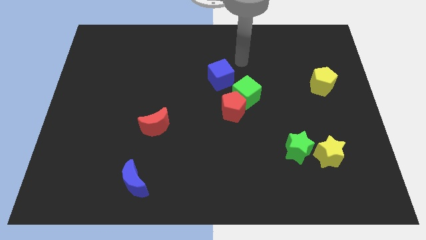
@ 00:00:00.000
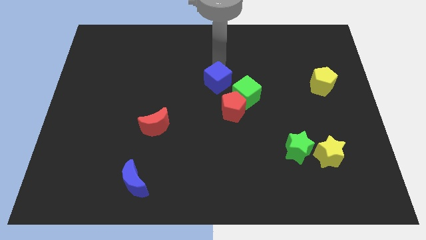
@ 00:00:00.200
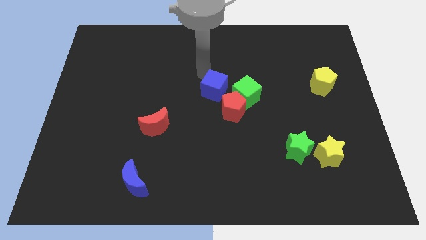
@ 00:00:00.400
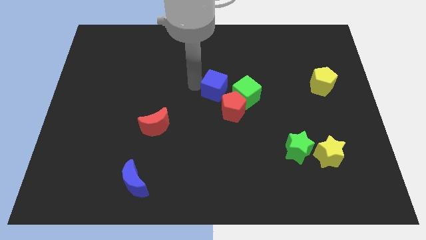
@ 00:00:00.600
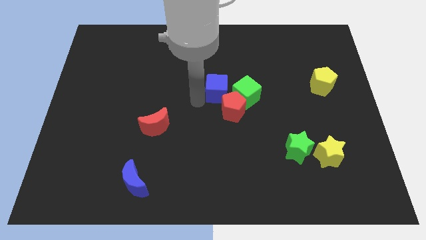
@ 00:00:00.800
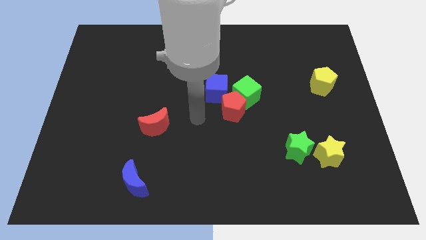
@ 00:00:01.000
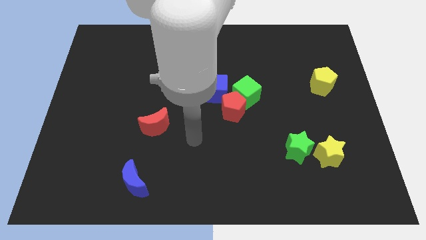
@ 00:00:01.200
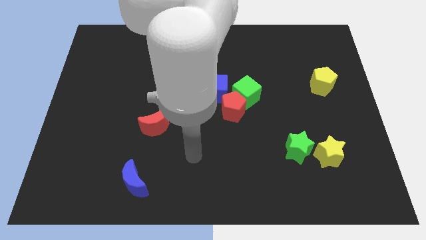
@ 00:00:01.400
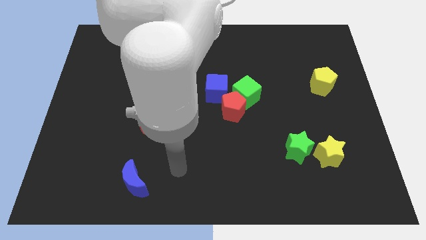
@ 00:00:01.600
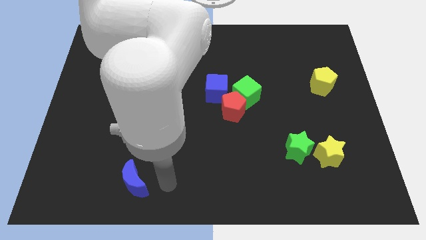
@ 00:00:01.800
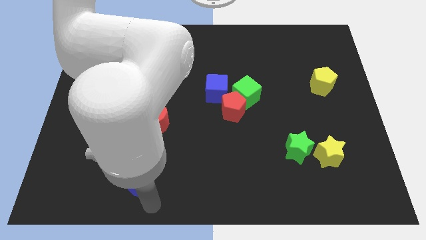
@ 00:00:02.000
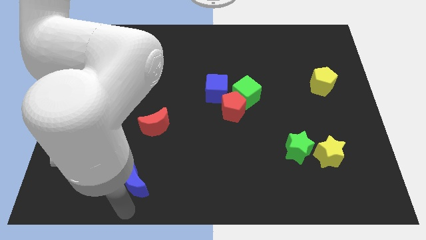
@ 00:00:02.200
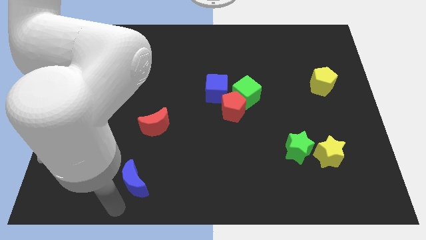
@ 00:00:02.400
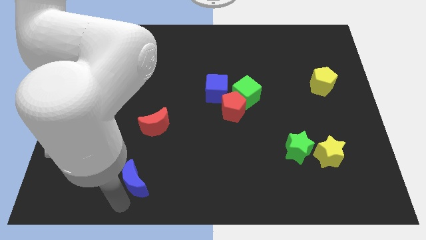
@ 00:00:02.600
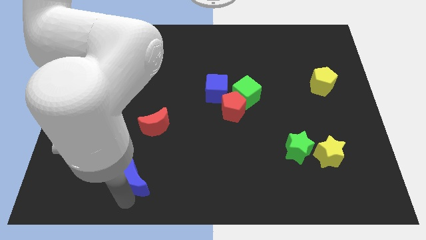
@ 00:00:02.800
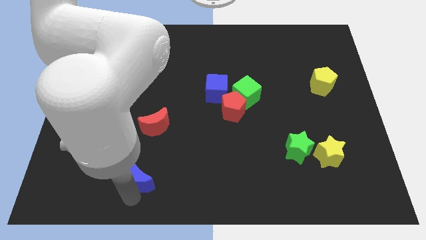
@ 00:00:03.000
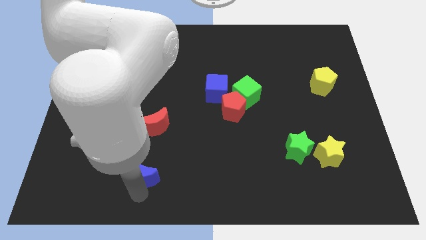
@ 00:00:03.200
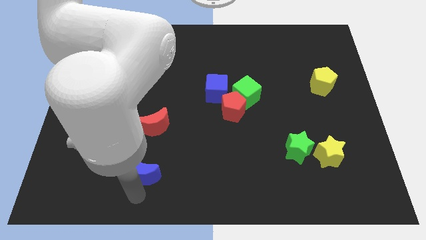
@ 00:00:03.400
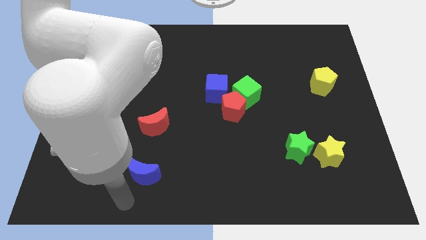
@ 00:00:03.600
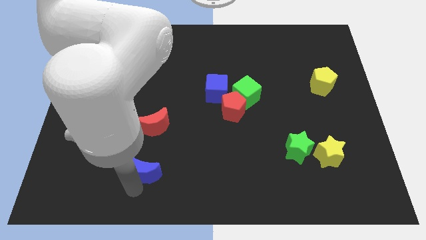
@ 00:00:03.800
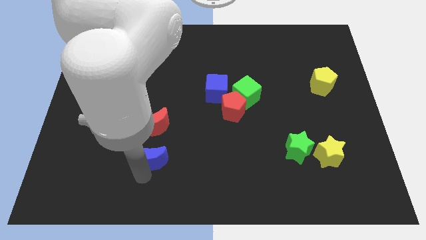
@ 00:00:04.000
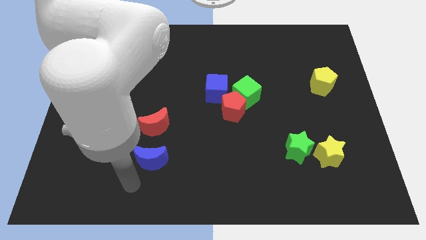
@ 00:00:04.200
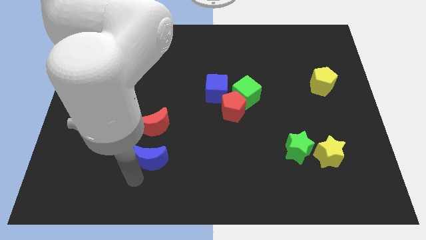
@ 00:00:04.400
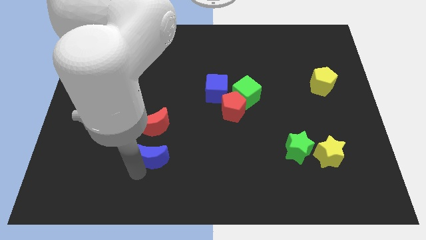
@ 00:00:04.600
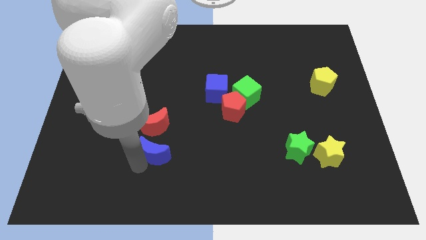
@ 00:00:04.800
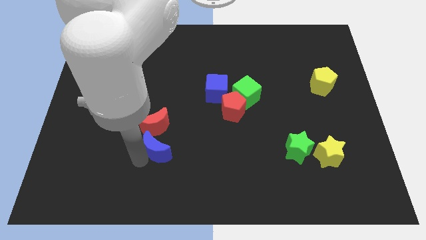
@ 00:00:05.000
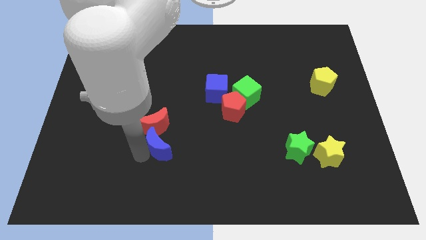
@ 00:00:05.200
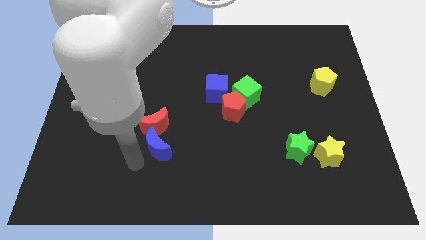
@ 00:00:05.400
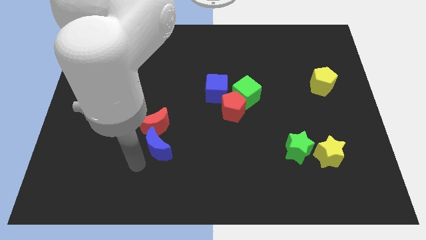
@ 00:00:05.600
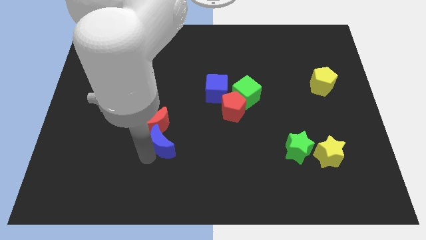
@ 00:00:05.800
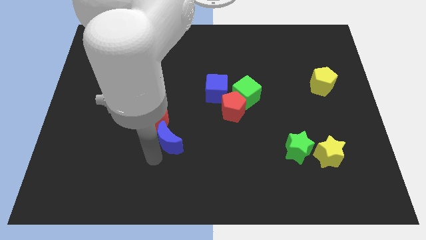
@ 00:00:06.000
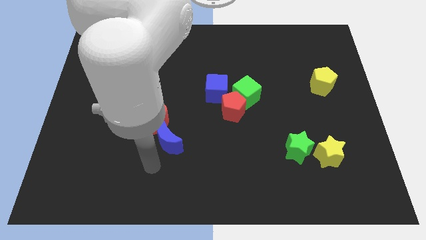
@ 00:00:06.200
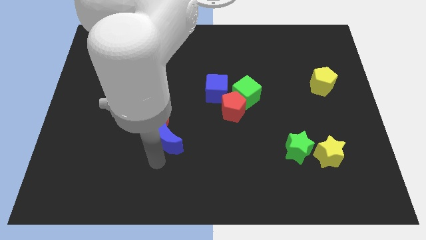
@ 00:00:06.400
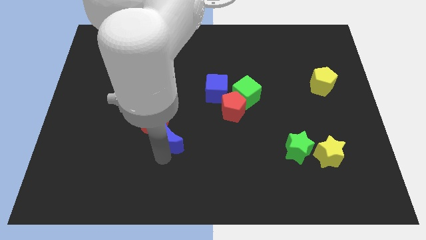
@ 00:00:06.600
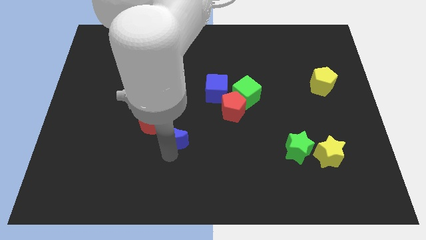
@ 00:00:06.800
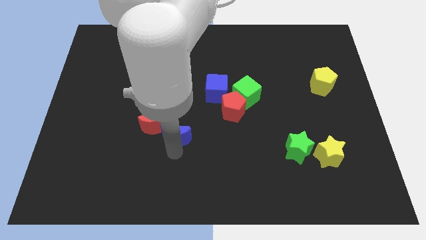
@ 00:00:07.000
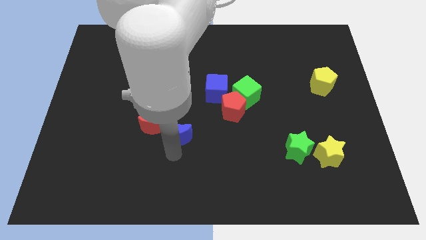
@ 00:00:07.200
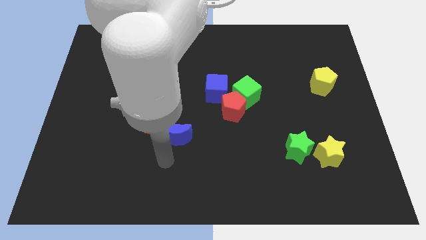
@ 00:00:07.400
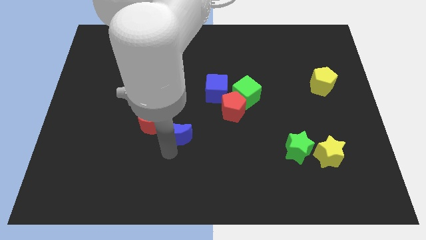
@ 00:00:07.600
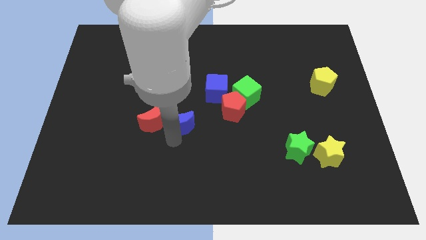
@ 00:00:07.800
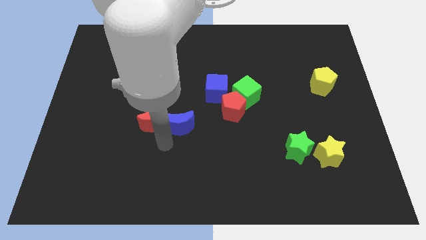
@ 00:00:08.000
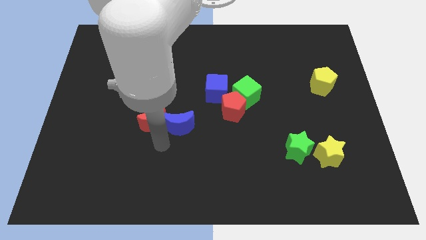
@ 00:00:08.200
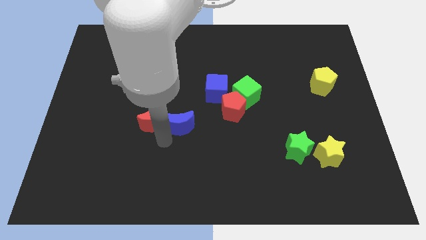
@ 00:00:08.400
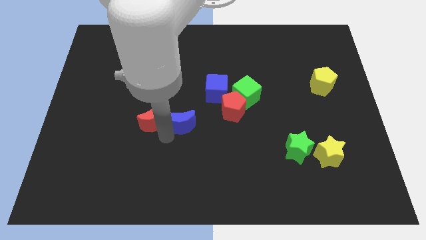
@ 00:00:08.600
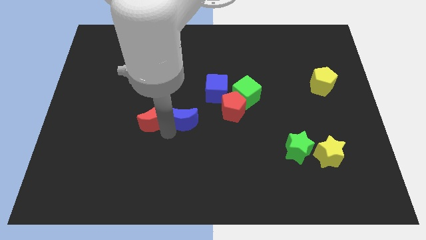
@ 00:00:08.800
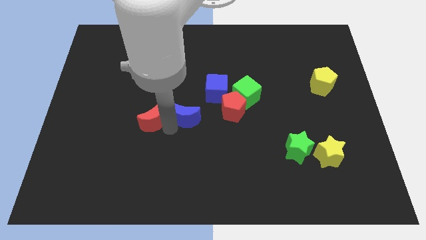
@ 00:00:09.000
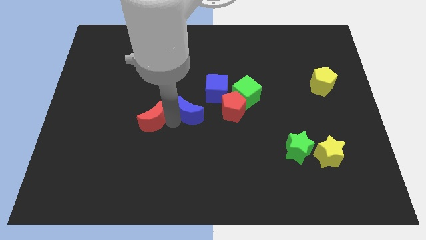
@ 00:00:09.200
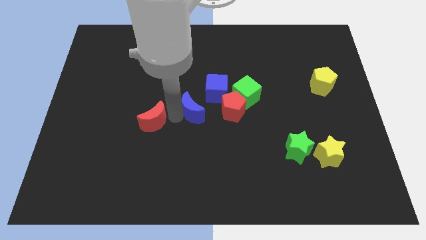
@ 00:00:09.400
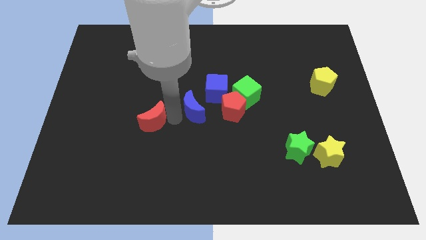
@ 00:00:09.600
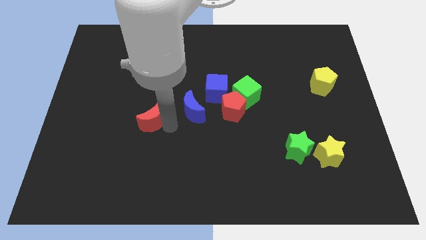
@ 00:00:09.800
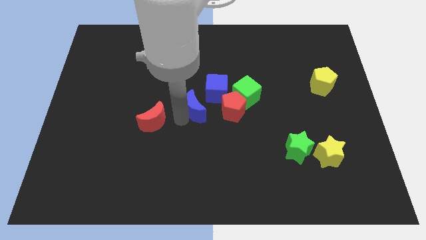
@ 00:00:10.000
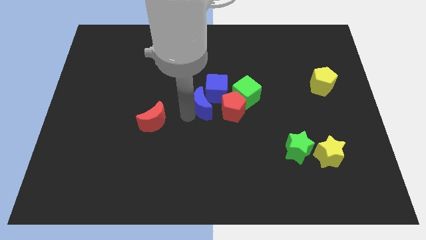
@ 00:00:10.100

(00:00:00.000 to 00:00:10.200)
push the blue moon towards the blue cube

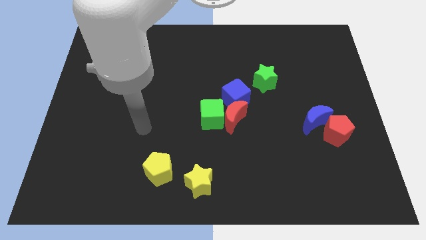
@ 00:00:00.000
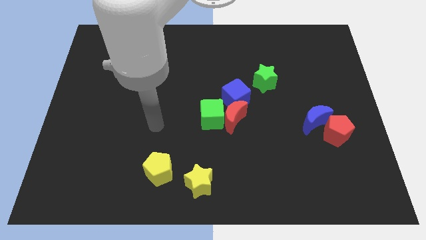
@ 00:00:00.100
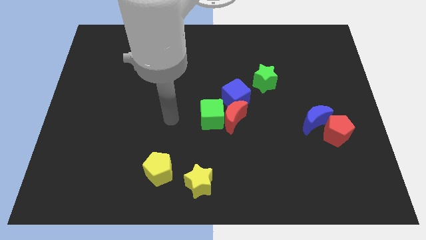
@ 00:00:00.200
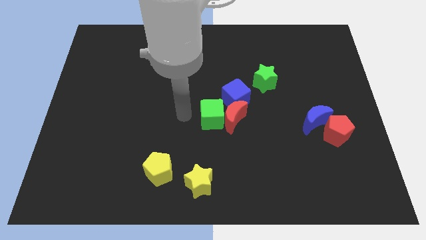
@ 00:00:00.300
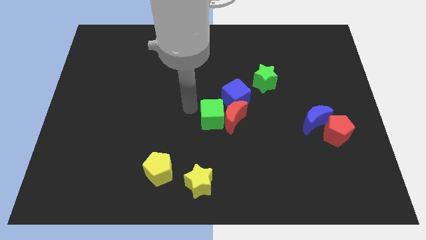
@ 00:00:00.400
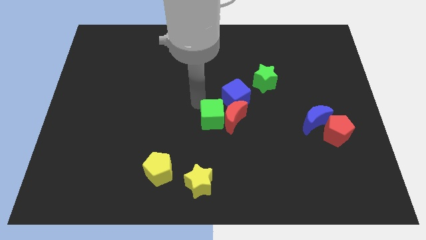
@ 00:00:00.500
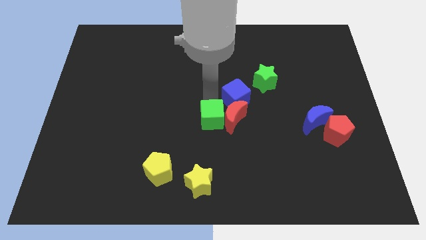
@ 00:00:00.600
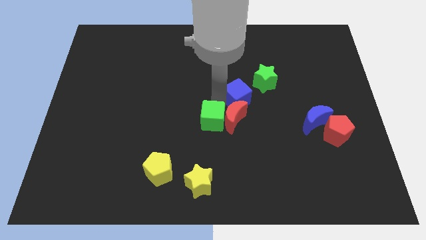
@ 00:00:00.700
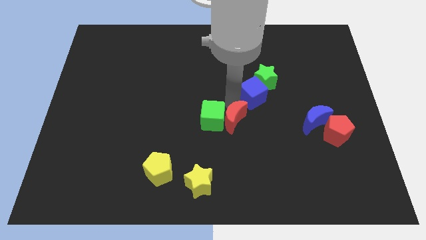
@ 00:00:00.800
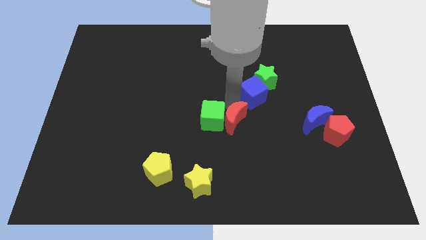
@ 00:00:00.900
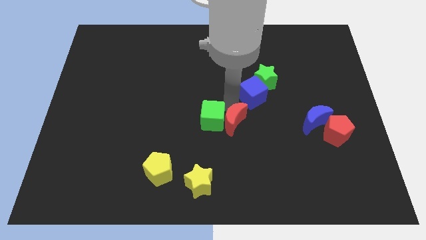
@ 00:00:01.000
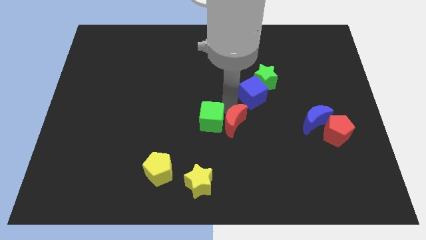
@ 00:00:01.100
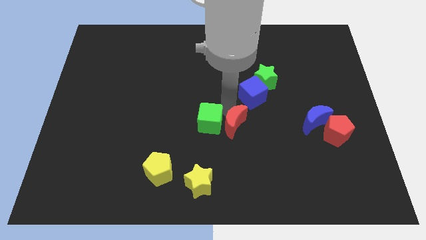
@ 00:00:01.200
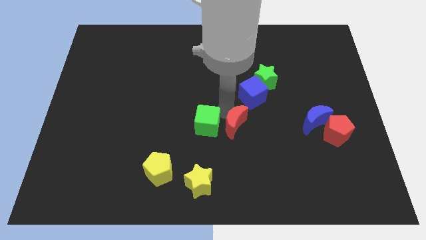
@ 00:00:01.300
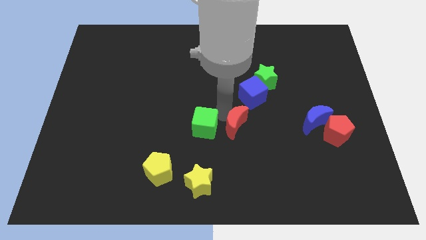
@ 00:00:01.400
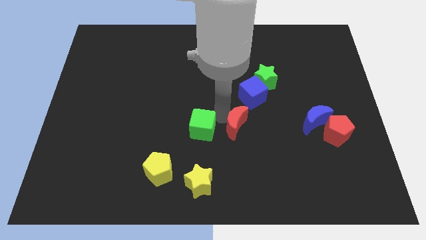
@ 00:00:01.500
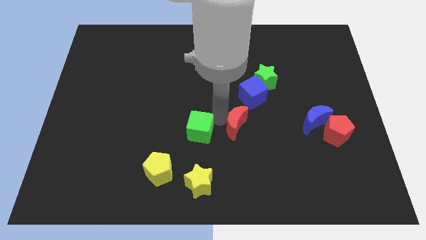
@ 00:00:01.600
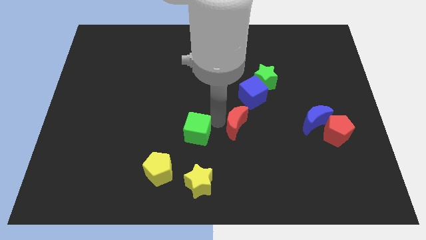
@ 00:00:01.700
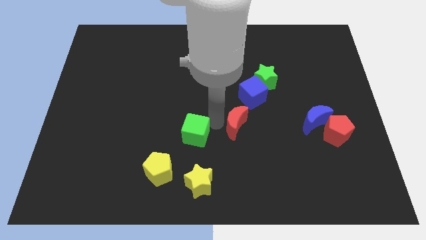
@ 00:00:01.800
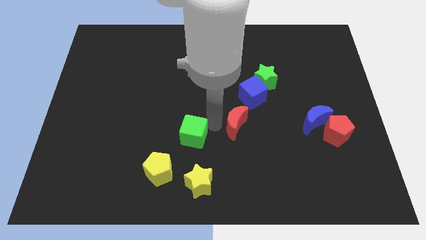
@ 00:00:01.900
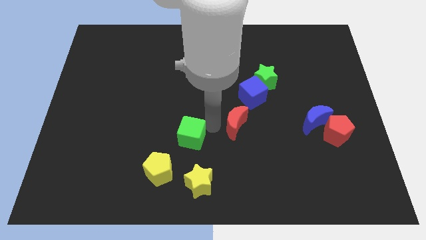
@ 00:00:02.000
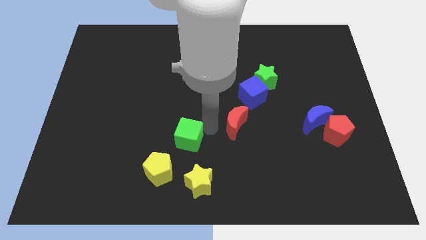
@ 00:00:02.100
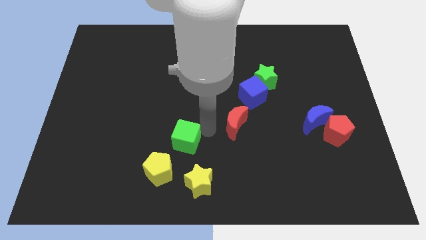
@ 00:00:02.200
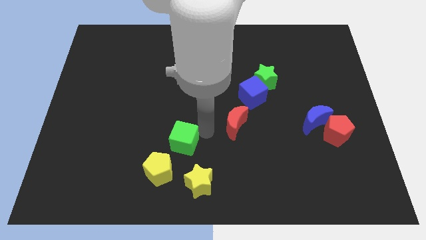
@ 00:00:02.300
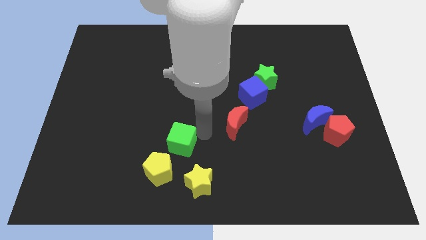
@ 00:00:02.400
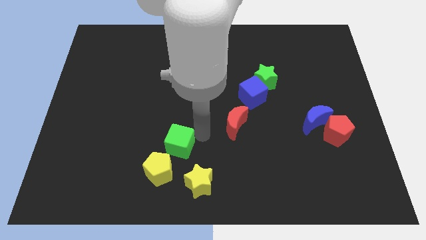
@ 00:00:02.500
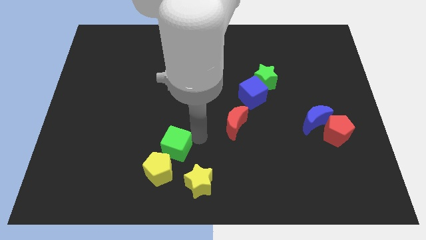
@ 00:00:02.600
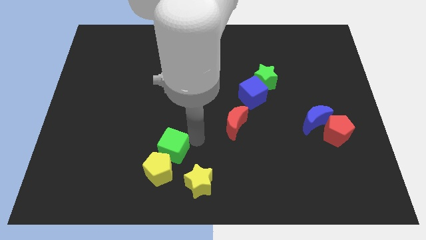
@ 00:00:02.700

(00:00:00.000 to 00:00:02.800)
push the green cube to the yellow pentagon
